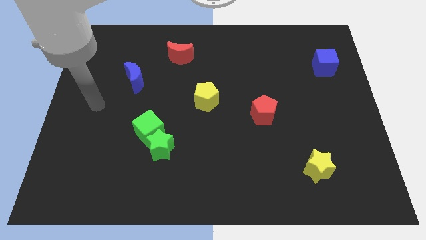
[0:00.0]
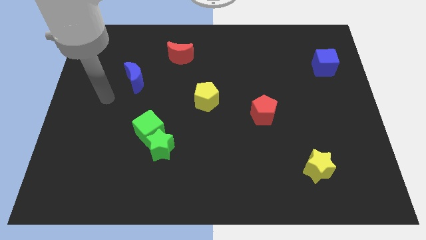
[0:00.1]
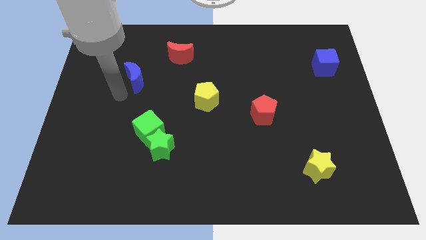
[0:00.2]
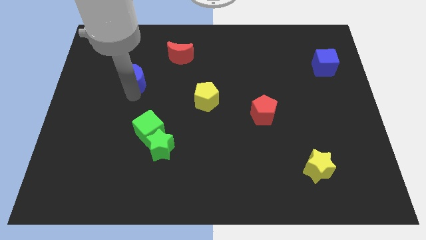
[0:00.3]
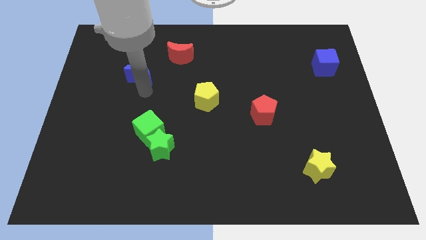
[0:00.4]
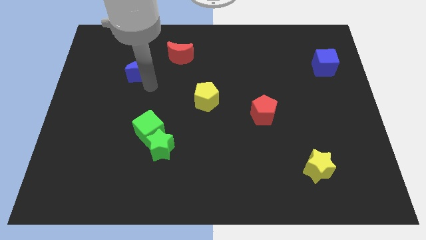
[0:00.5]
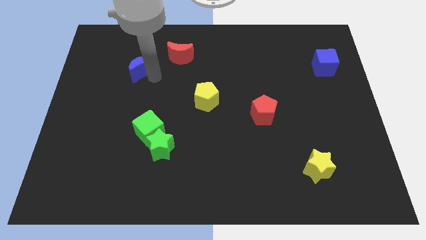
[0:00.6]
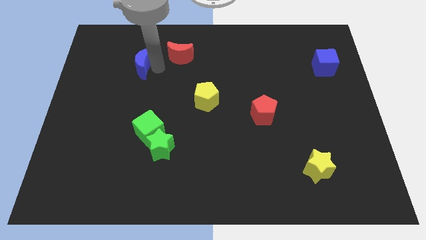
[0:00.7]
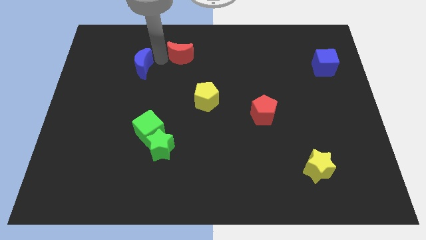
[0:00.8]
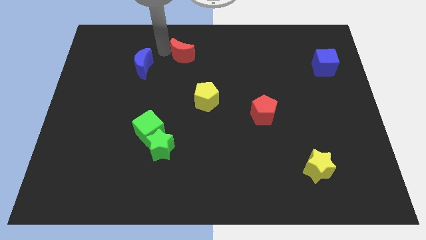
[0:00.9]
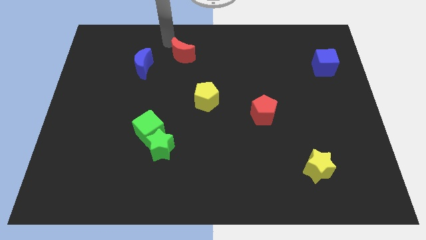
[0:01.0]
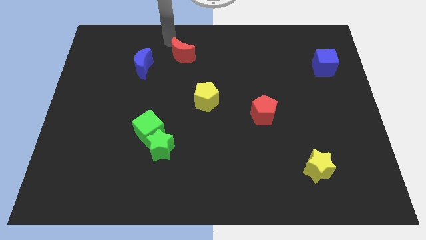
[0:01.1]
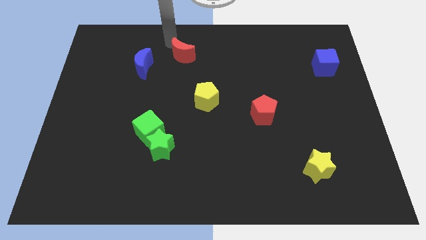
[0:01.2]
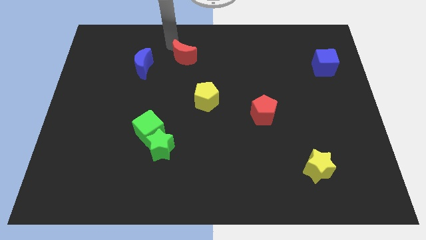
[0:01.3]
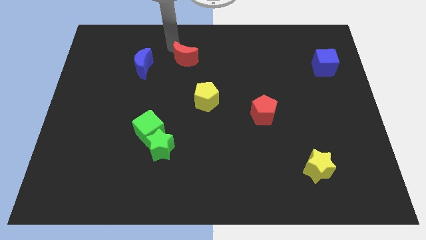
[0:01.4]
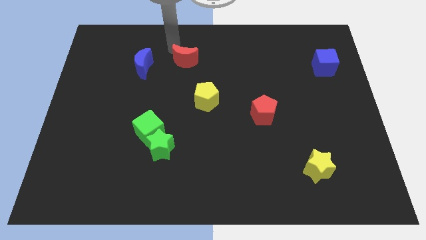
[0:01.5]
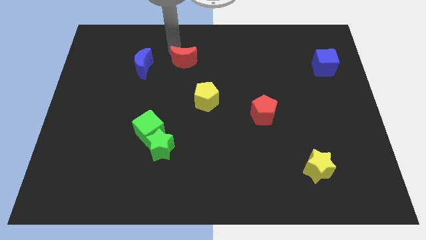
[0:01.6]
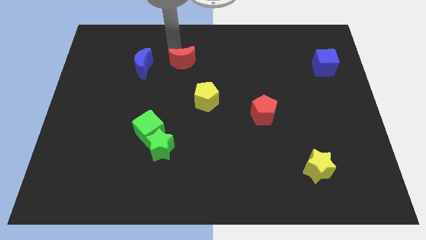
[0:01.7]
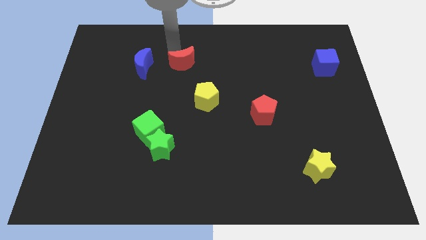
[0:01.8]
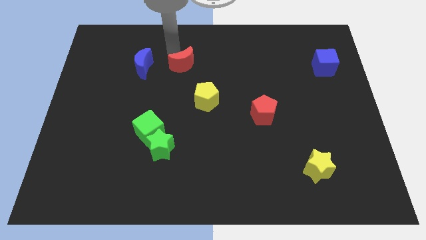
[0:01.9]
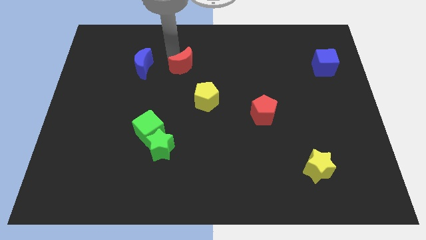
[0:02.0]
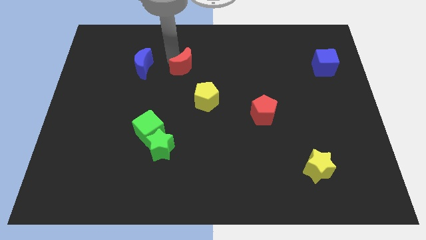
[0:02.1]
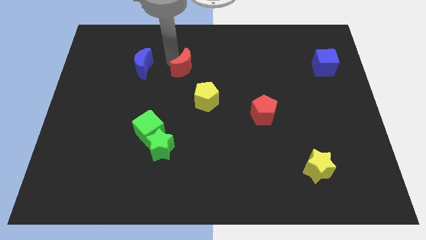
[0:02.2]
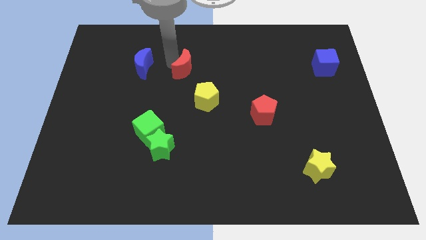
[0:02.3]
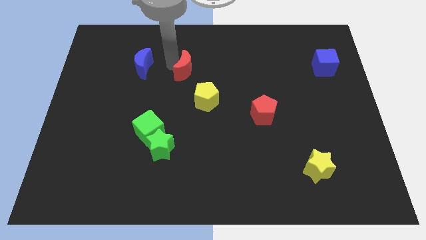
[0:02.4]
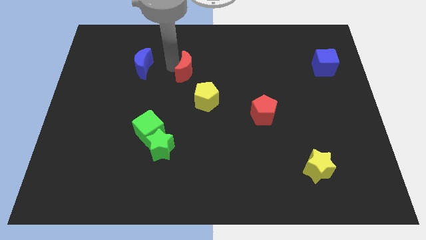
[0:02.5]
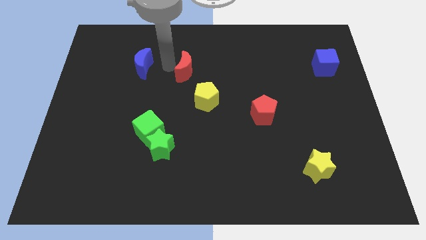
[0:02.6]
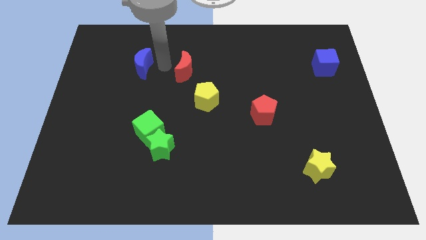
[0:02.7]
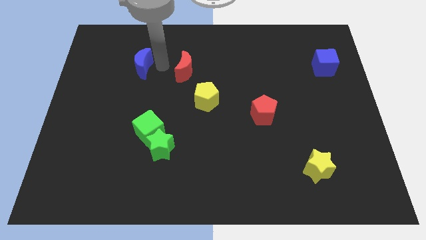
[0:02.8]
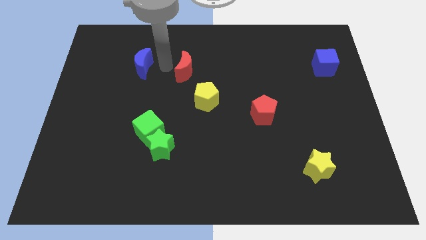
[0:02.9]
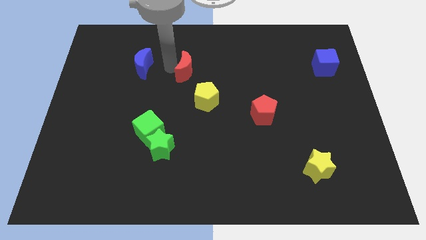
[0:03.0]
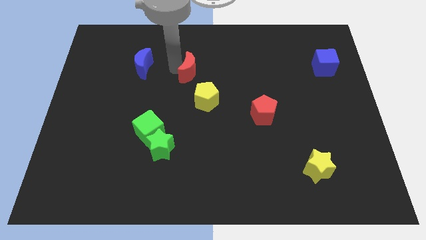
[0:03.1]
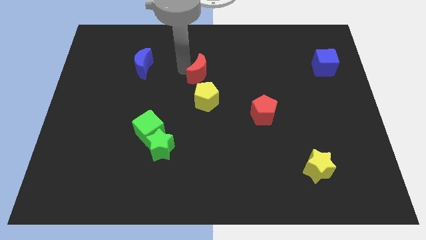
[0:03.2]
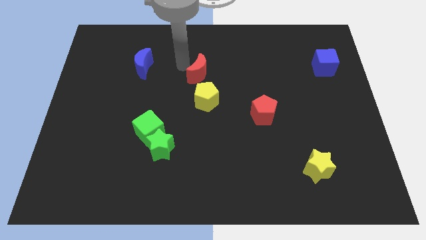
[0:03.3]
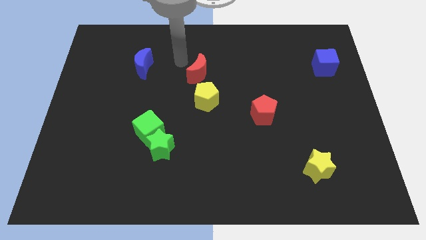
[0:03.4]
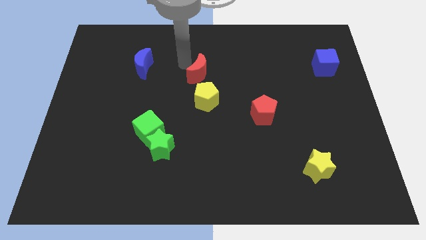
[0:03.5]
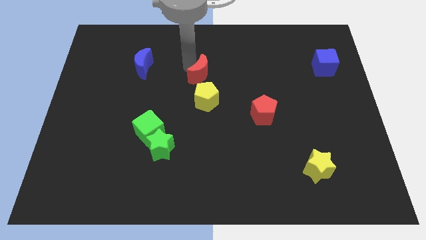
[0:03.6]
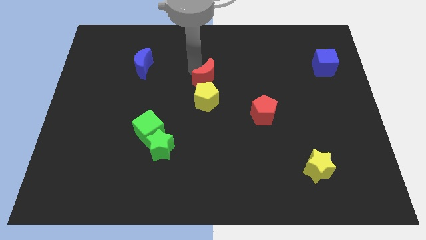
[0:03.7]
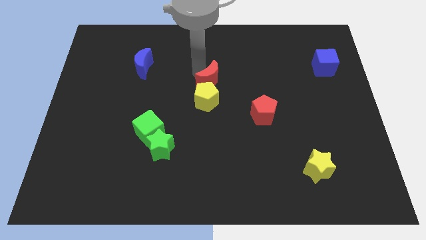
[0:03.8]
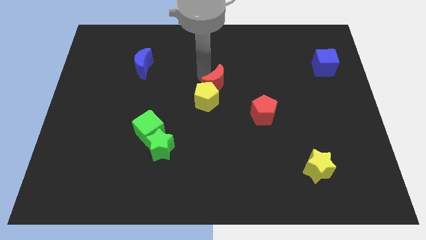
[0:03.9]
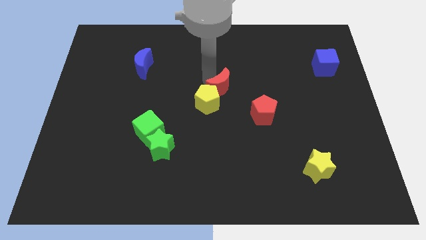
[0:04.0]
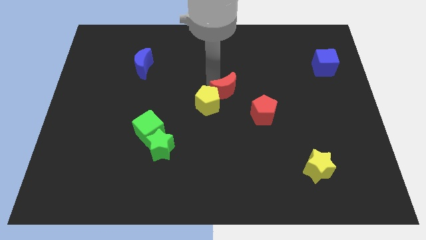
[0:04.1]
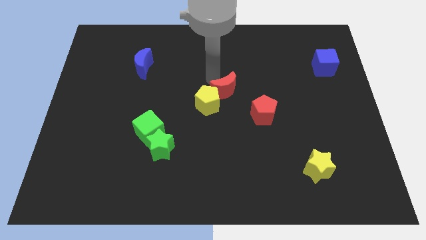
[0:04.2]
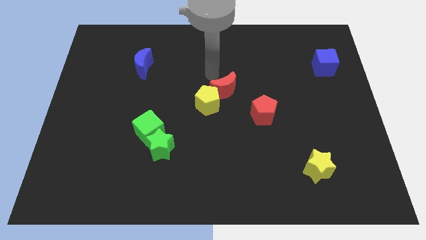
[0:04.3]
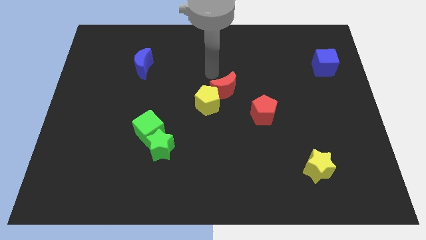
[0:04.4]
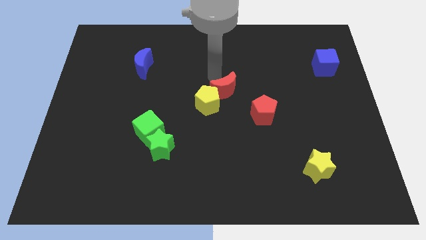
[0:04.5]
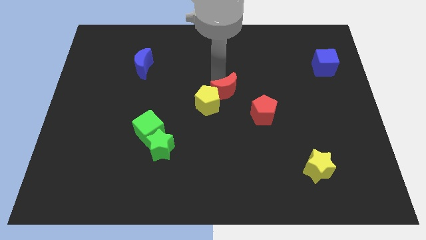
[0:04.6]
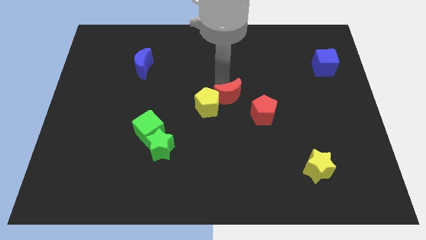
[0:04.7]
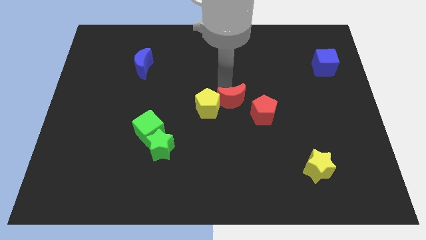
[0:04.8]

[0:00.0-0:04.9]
push the red moon downwards and to the right

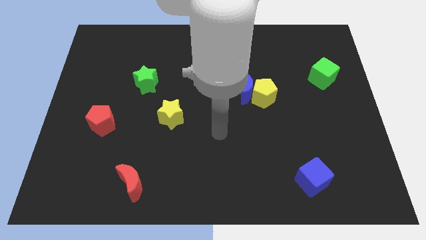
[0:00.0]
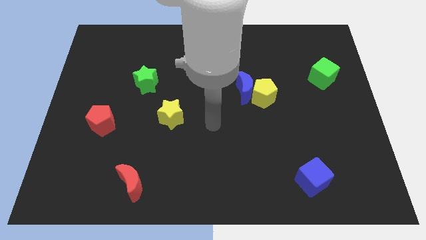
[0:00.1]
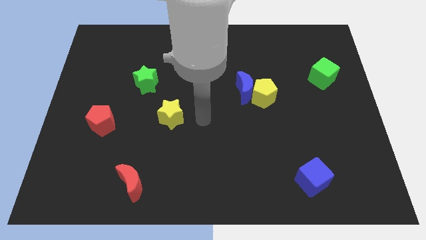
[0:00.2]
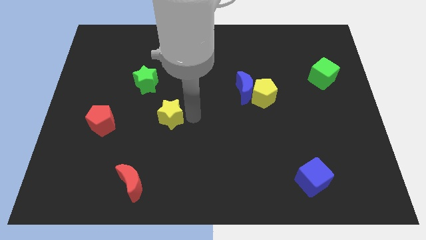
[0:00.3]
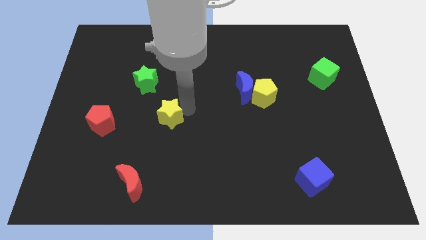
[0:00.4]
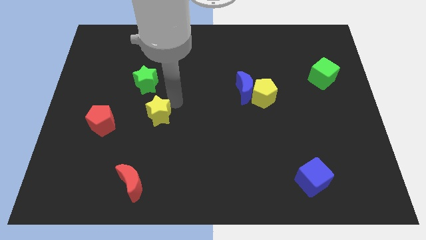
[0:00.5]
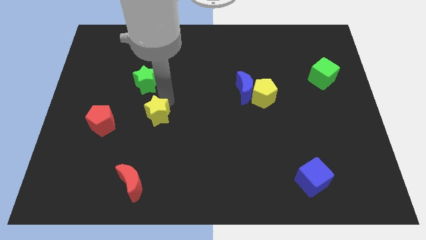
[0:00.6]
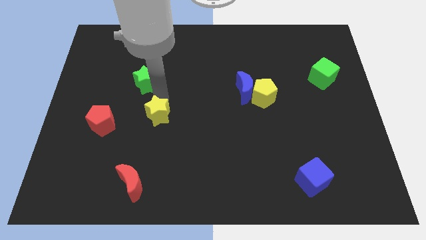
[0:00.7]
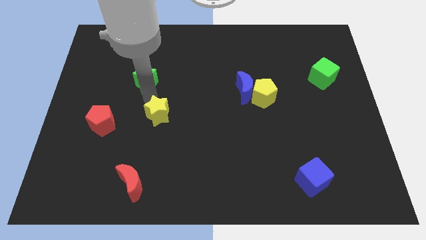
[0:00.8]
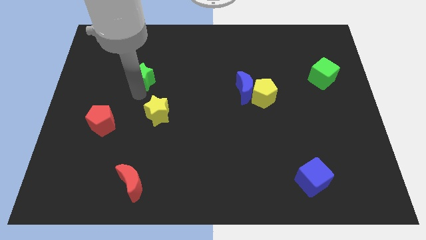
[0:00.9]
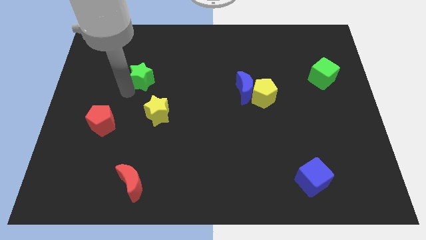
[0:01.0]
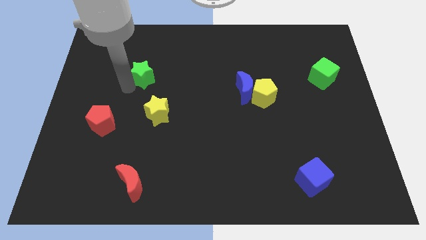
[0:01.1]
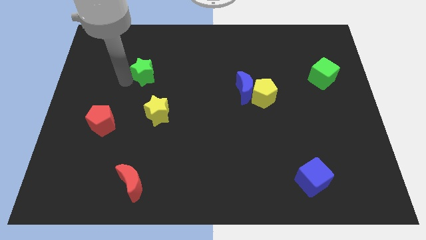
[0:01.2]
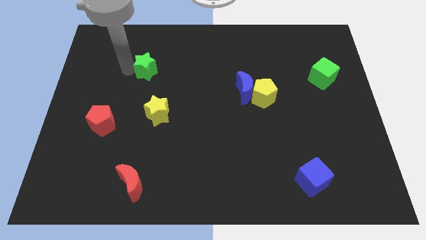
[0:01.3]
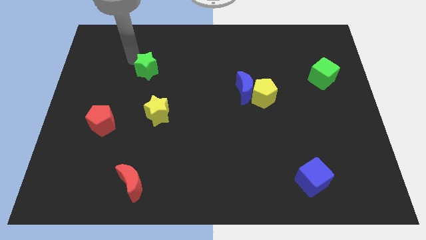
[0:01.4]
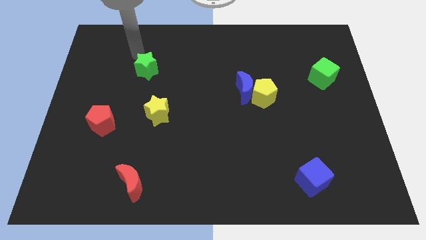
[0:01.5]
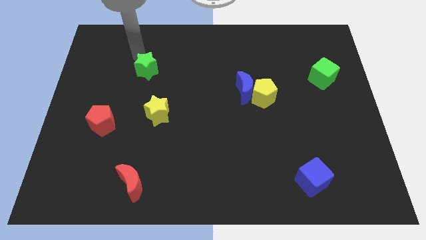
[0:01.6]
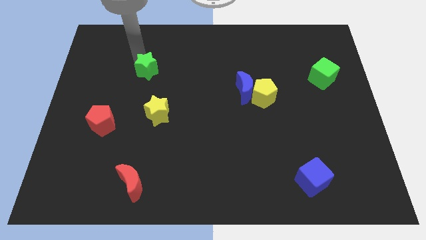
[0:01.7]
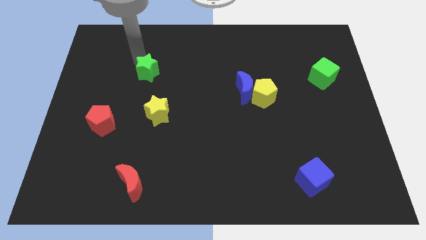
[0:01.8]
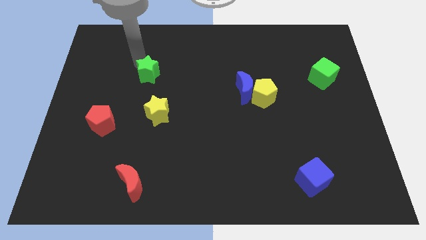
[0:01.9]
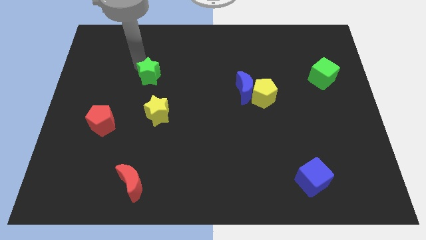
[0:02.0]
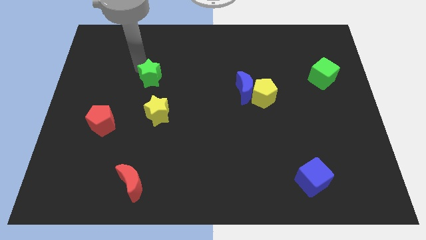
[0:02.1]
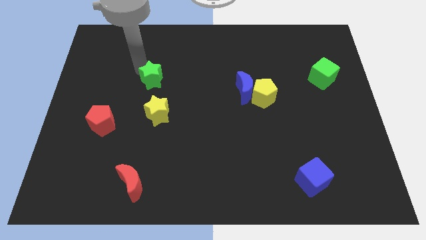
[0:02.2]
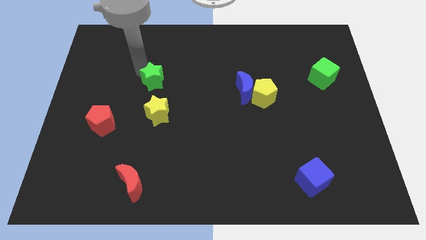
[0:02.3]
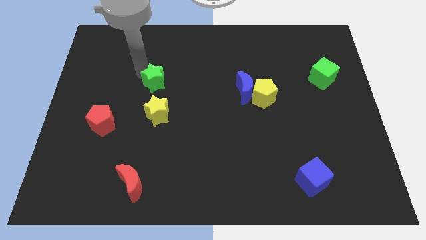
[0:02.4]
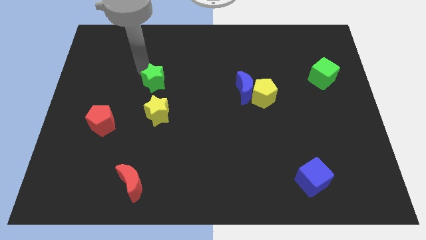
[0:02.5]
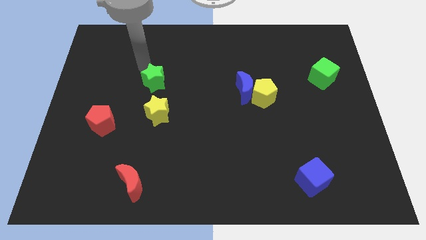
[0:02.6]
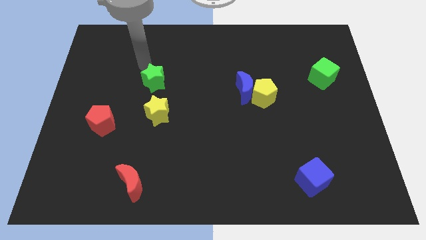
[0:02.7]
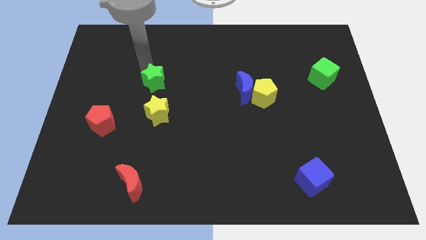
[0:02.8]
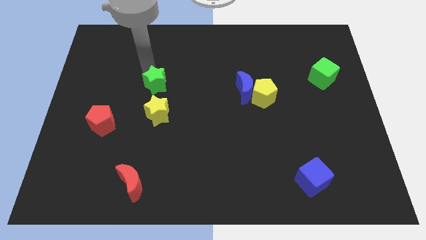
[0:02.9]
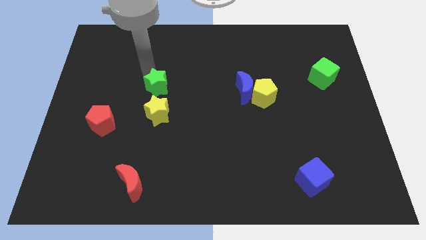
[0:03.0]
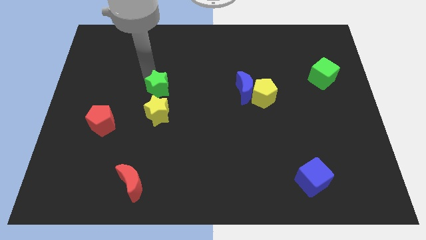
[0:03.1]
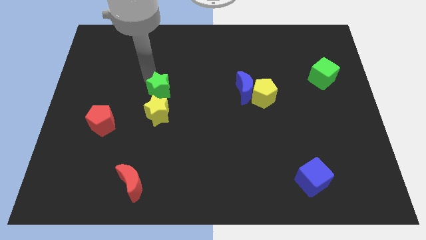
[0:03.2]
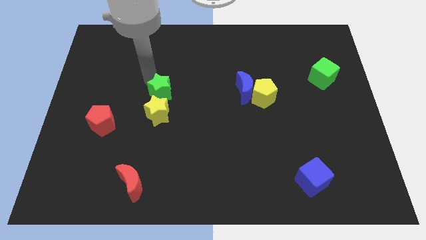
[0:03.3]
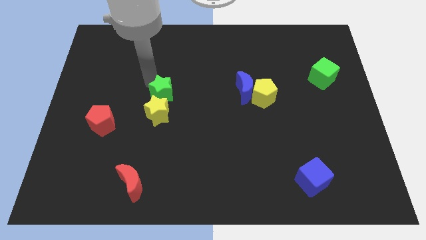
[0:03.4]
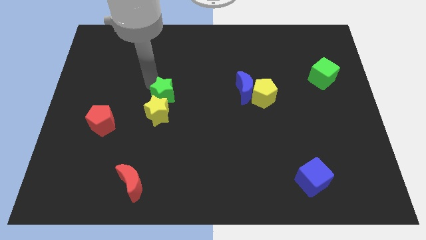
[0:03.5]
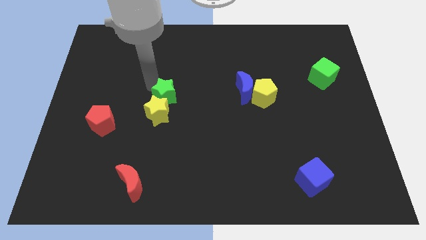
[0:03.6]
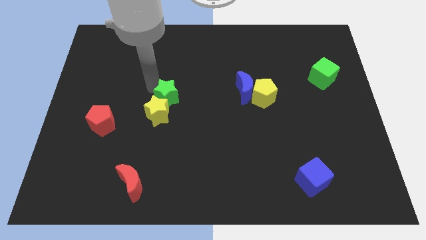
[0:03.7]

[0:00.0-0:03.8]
move the green star a little down and to the right diagonally
